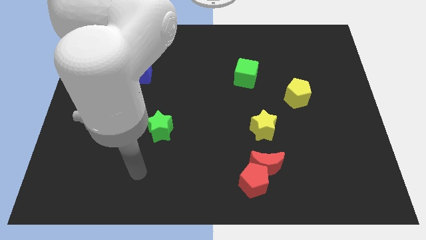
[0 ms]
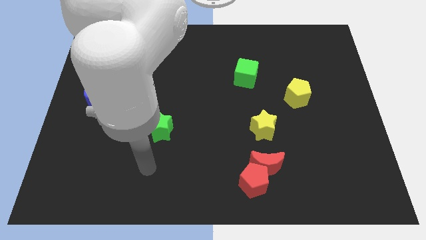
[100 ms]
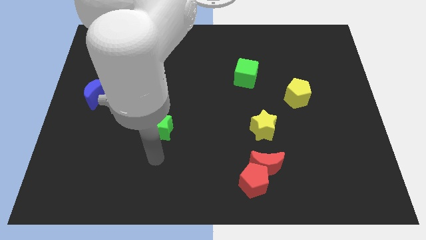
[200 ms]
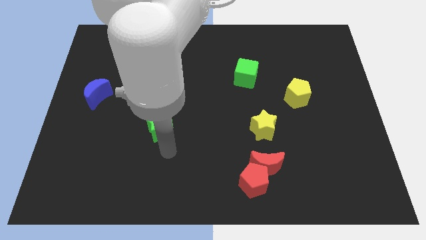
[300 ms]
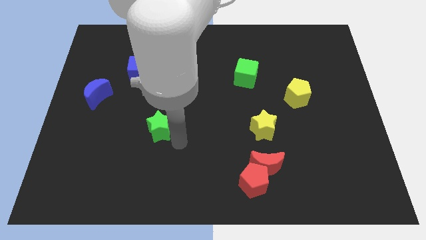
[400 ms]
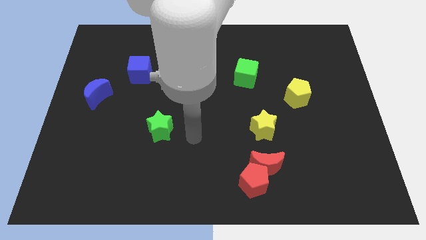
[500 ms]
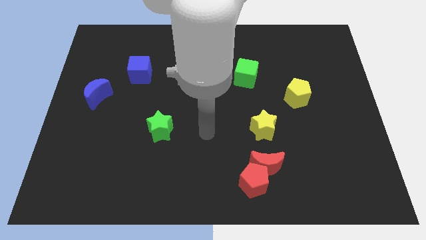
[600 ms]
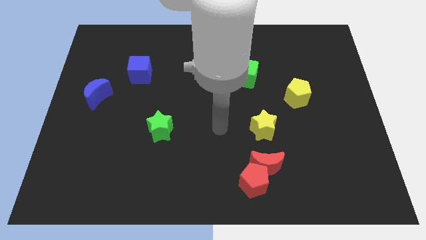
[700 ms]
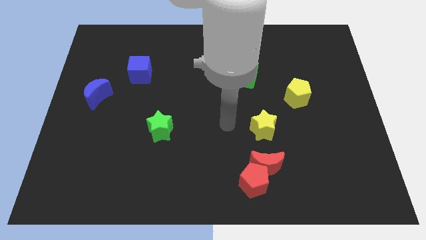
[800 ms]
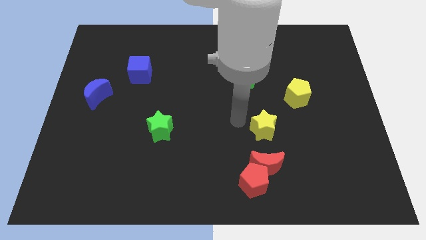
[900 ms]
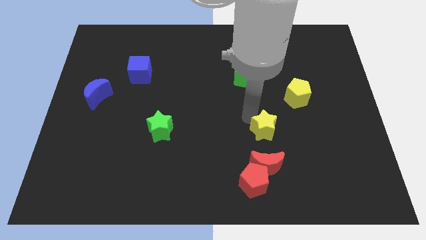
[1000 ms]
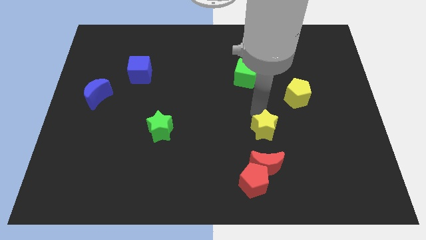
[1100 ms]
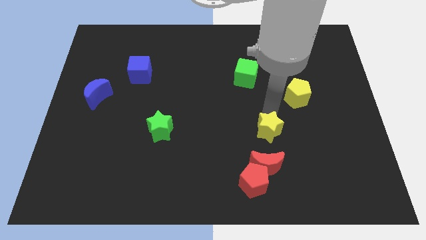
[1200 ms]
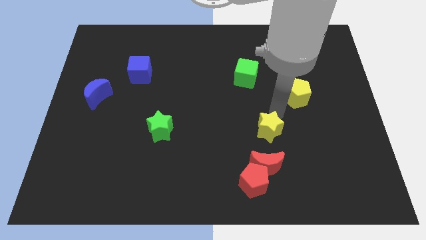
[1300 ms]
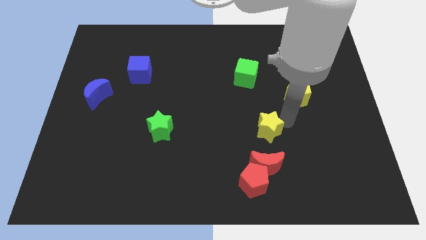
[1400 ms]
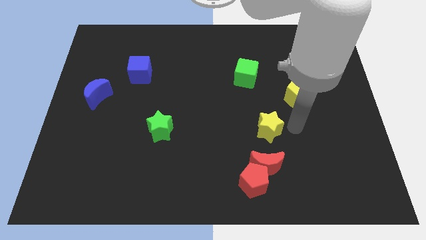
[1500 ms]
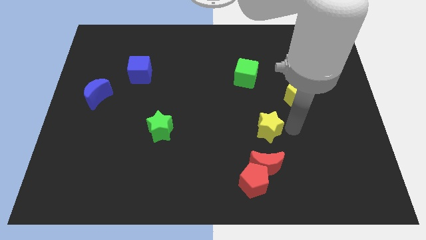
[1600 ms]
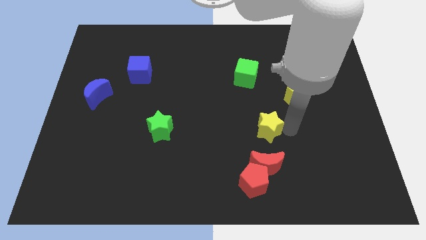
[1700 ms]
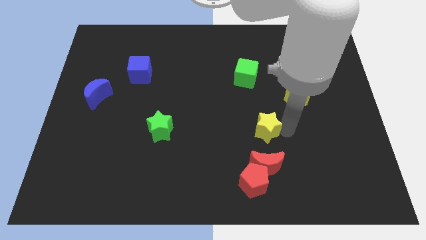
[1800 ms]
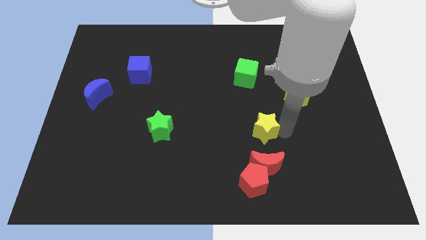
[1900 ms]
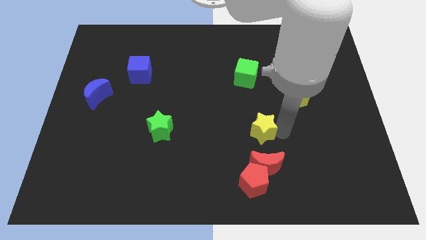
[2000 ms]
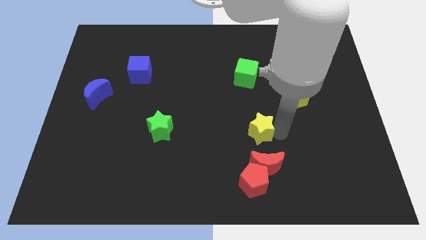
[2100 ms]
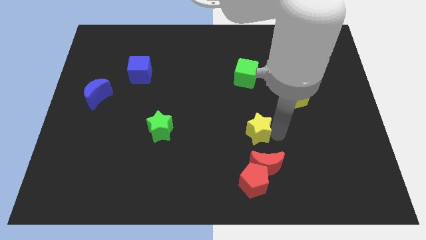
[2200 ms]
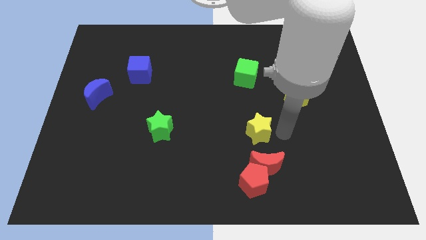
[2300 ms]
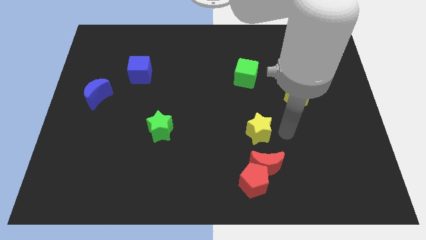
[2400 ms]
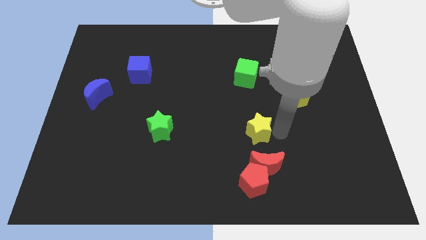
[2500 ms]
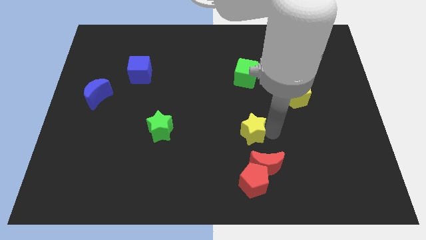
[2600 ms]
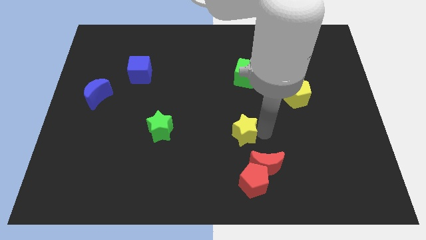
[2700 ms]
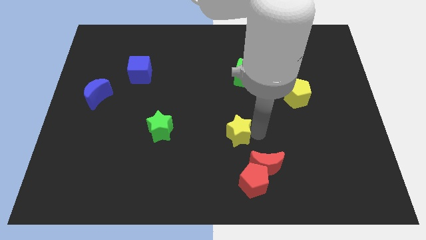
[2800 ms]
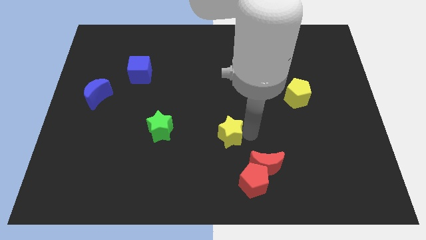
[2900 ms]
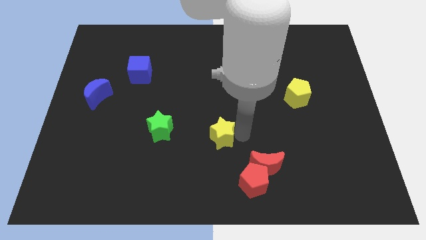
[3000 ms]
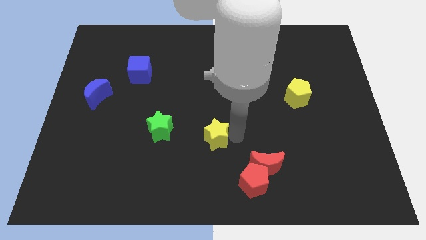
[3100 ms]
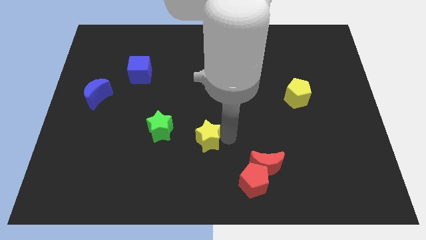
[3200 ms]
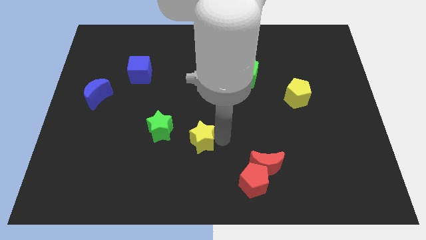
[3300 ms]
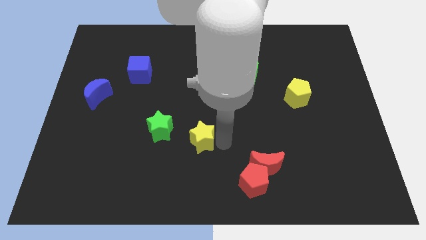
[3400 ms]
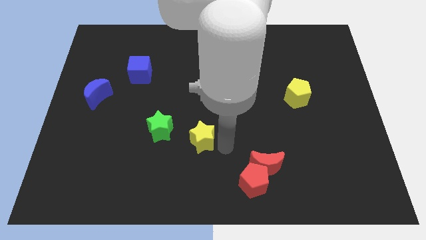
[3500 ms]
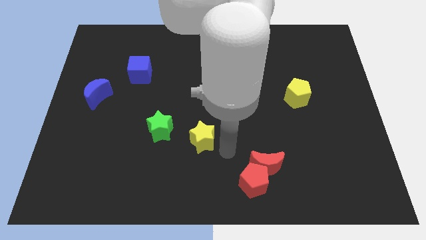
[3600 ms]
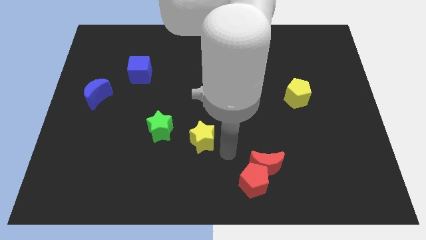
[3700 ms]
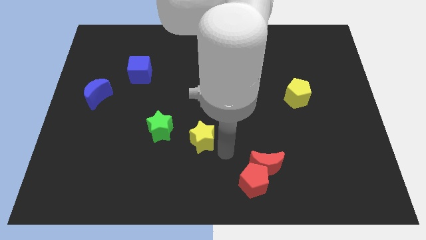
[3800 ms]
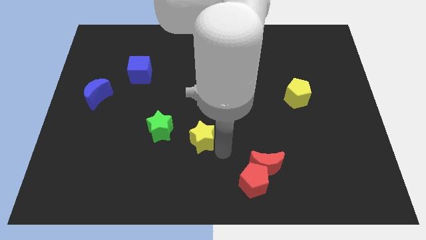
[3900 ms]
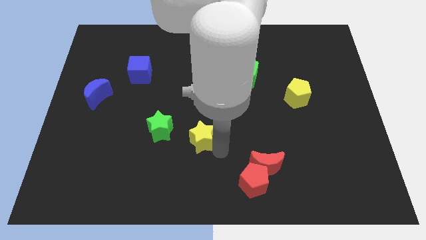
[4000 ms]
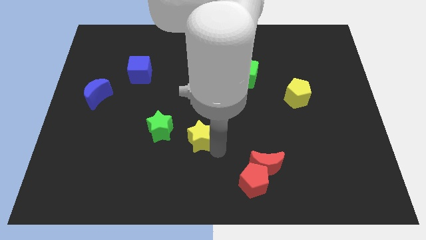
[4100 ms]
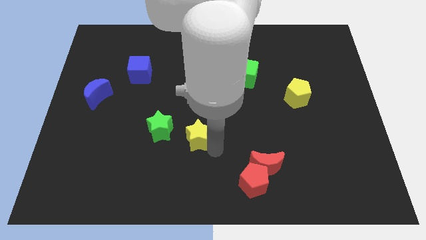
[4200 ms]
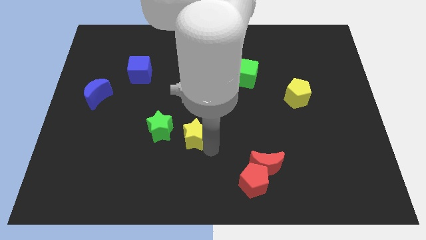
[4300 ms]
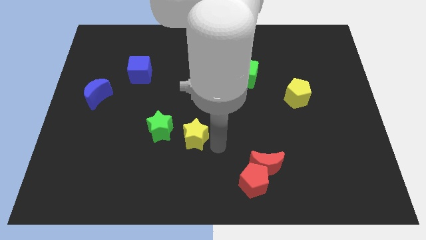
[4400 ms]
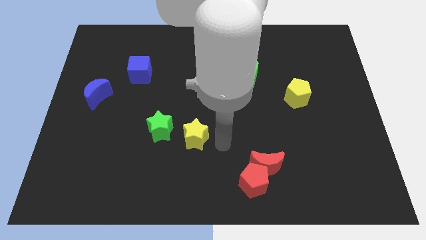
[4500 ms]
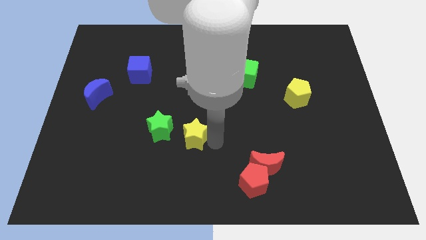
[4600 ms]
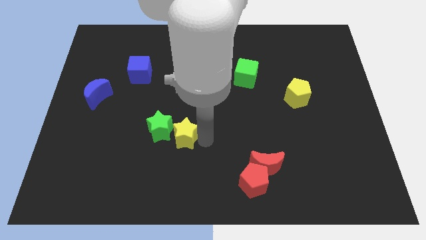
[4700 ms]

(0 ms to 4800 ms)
put the yellow star towards the green star

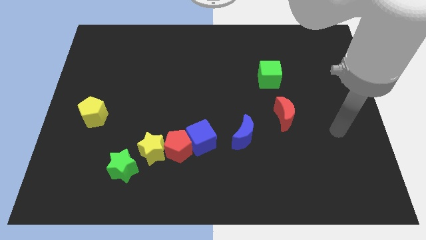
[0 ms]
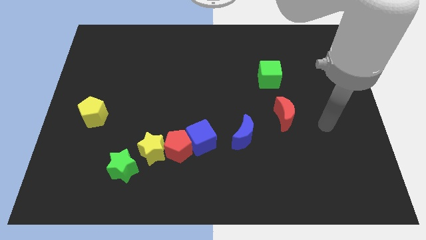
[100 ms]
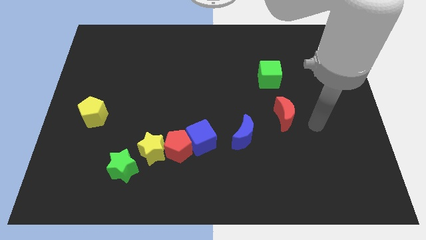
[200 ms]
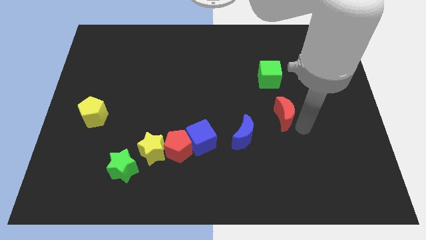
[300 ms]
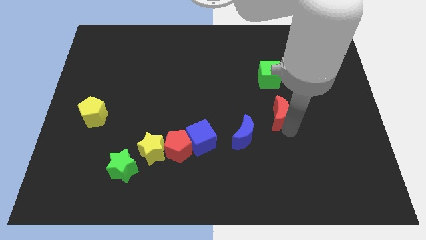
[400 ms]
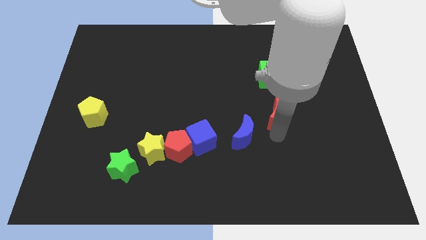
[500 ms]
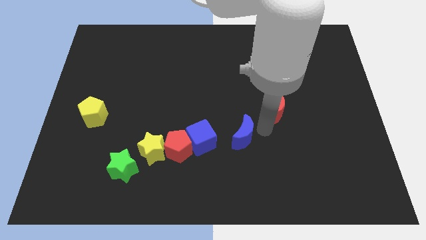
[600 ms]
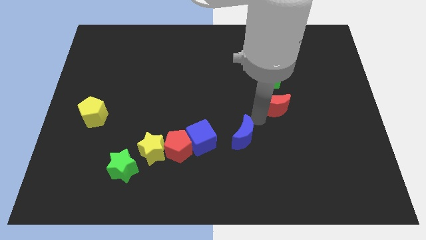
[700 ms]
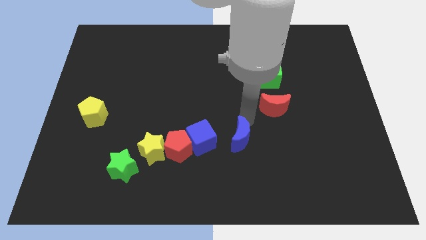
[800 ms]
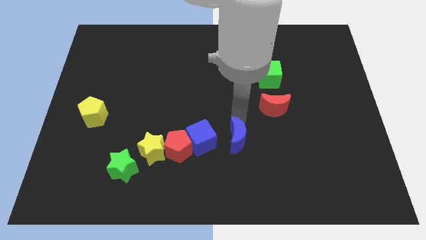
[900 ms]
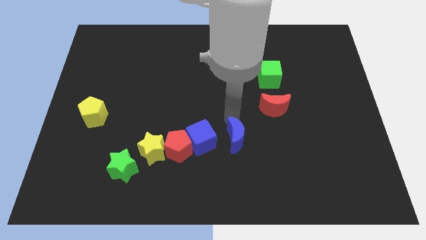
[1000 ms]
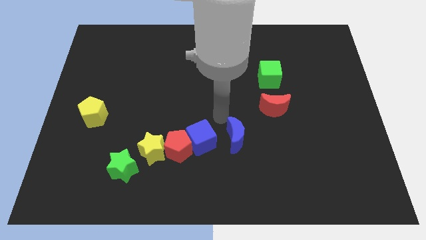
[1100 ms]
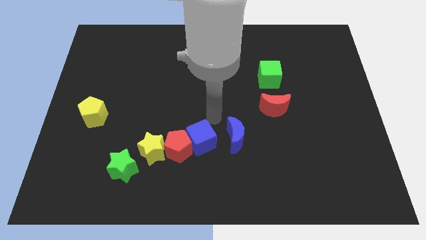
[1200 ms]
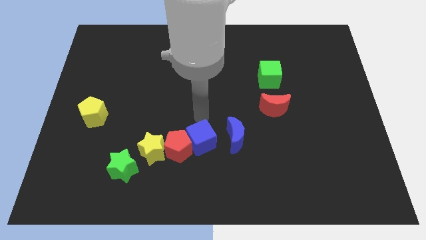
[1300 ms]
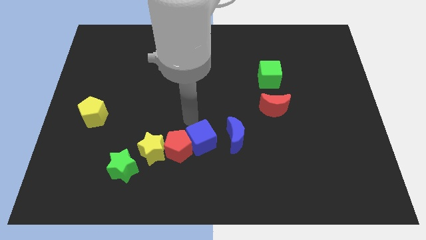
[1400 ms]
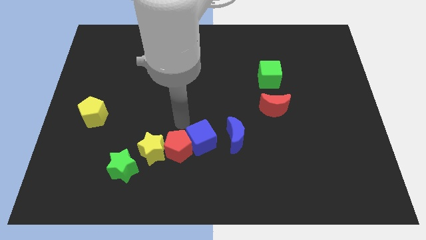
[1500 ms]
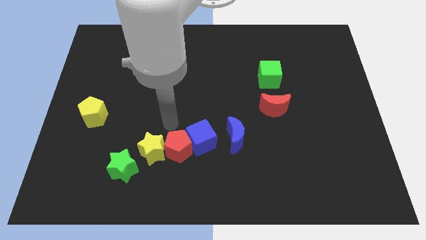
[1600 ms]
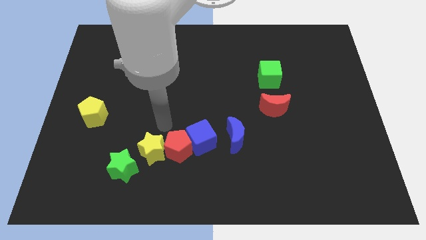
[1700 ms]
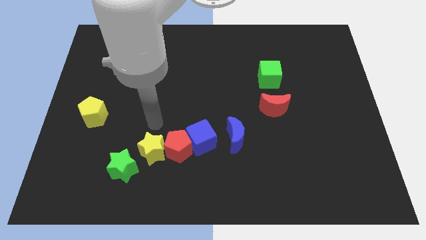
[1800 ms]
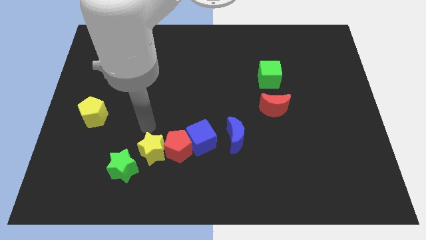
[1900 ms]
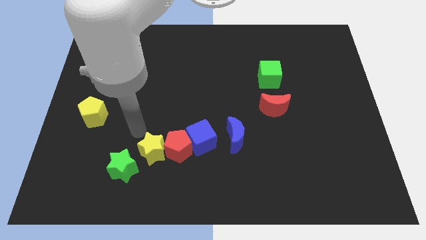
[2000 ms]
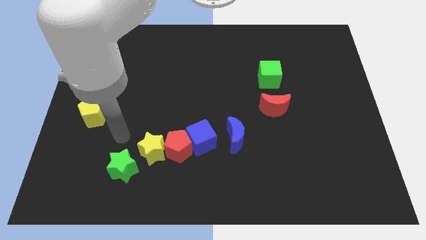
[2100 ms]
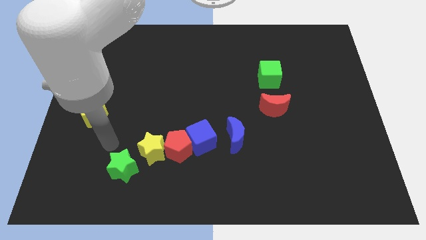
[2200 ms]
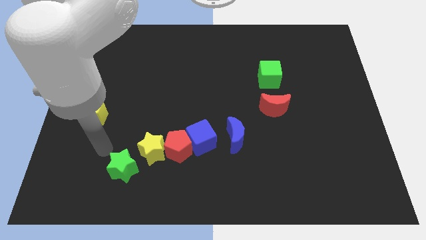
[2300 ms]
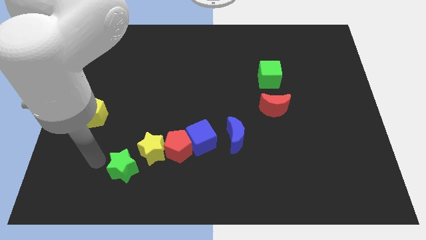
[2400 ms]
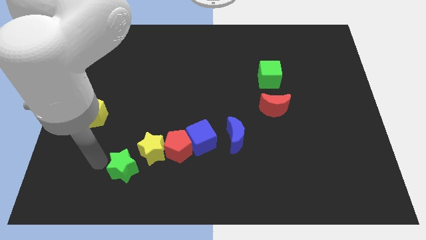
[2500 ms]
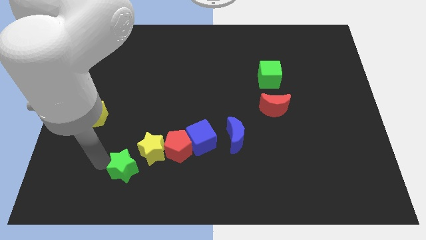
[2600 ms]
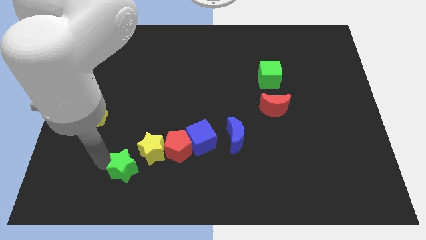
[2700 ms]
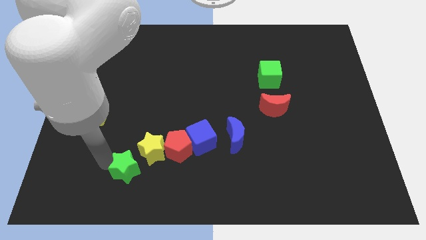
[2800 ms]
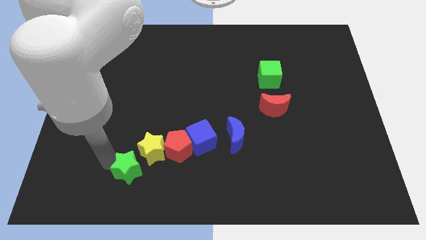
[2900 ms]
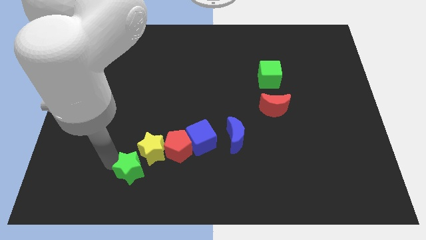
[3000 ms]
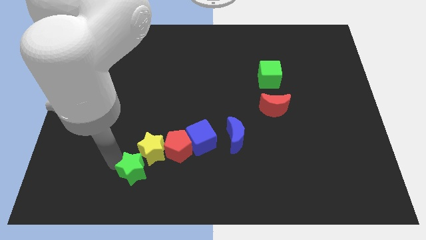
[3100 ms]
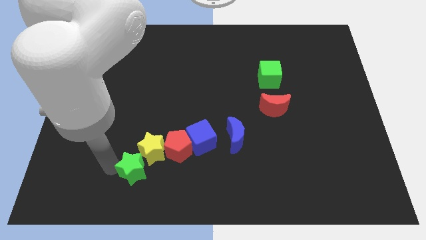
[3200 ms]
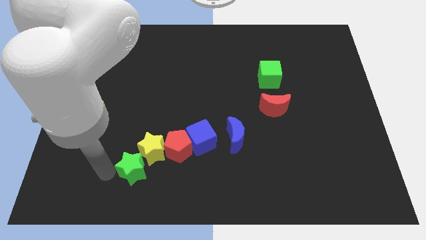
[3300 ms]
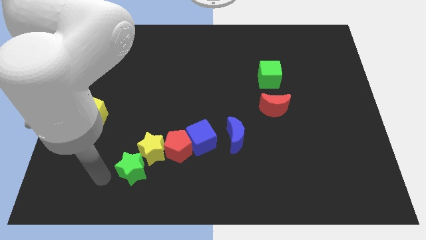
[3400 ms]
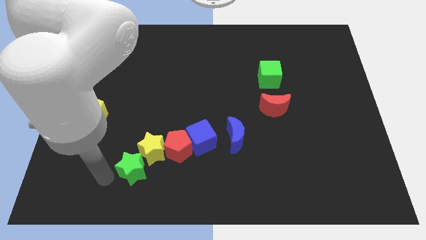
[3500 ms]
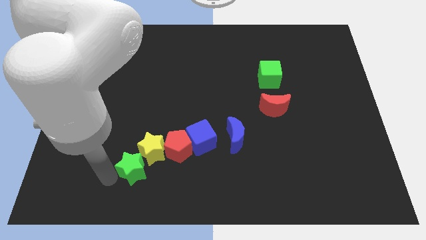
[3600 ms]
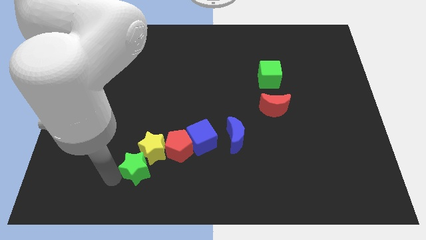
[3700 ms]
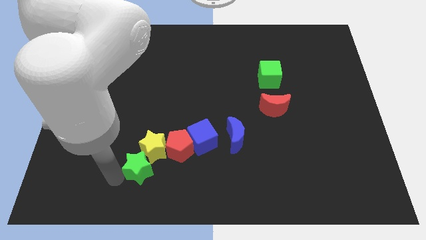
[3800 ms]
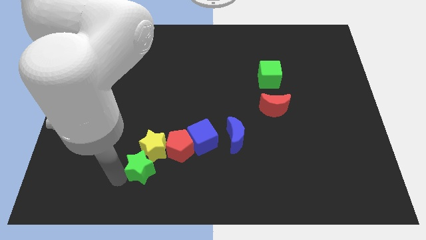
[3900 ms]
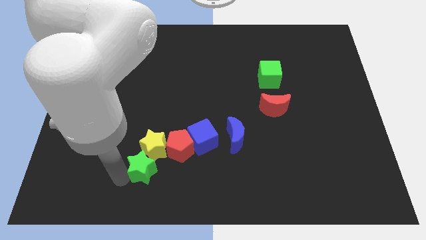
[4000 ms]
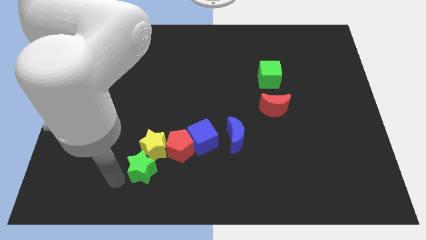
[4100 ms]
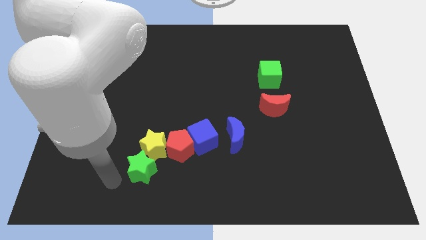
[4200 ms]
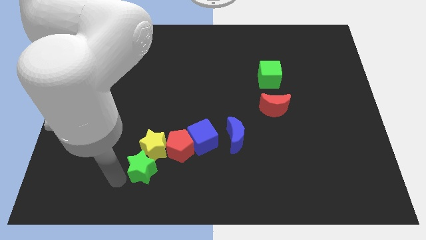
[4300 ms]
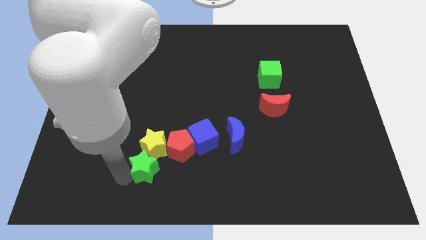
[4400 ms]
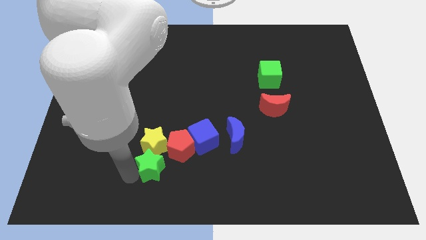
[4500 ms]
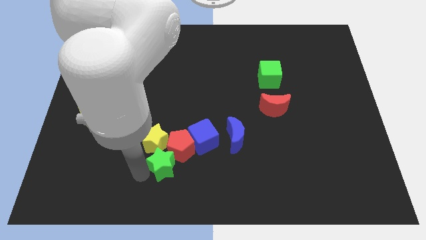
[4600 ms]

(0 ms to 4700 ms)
slide the green star close to the red pentagon
